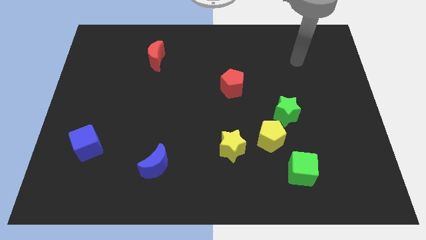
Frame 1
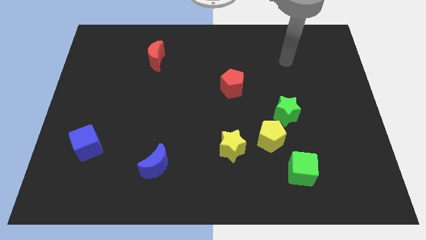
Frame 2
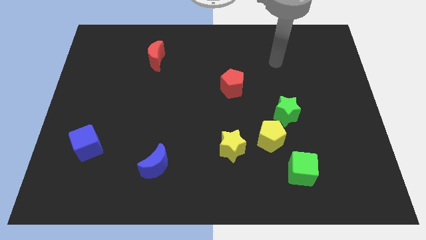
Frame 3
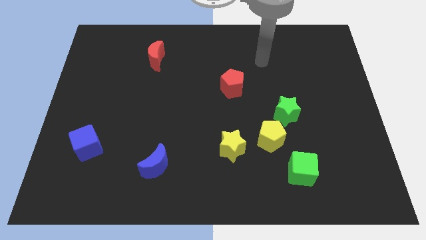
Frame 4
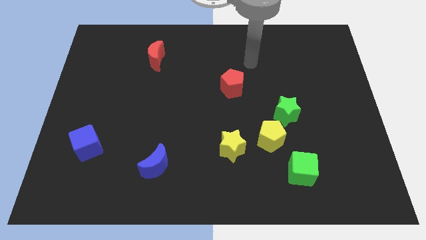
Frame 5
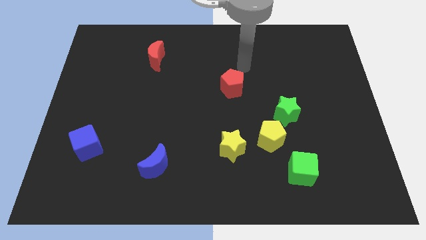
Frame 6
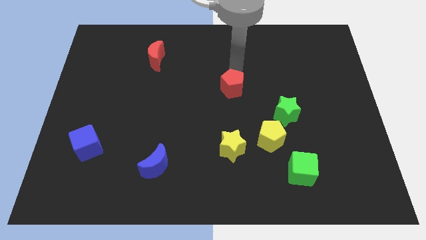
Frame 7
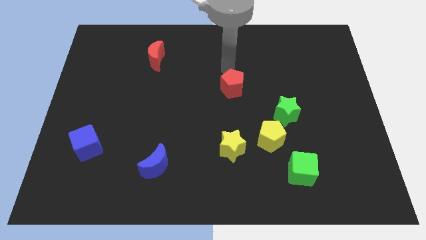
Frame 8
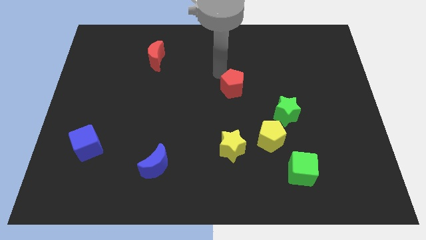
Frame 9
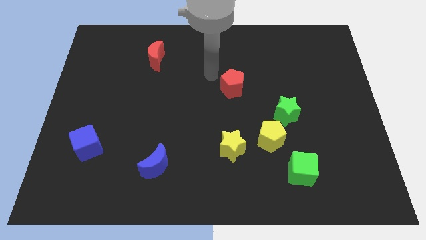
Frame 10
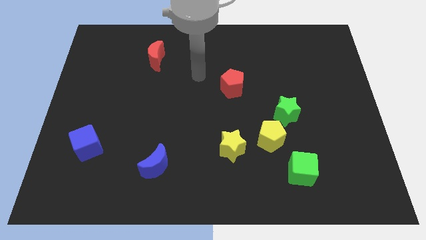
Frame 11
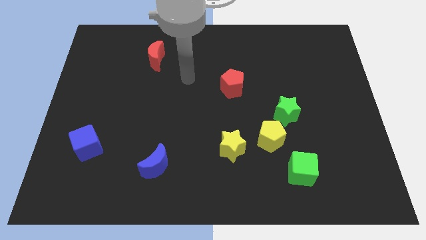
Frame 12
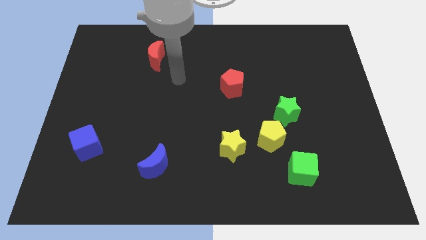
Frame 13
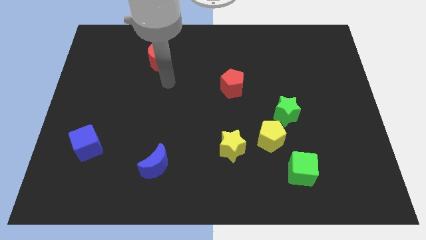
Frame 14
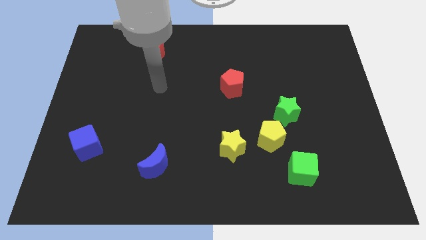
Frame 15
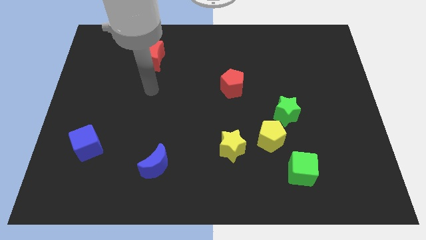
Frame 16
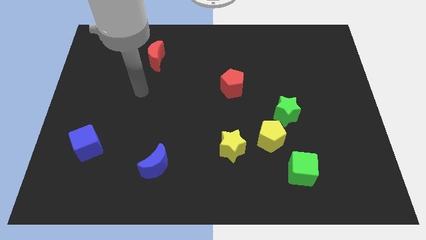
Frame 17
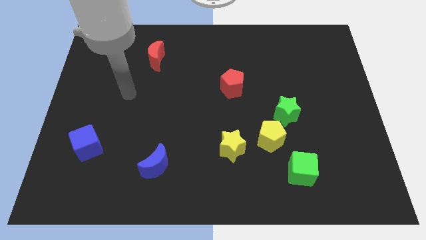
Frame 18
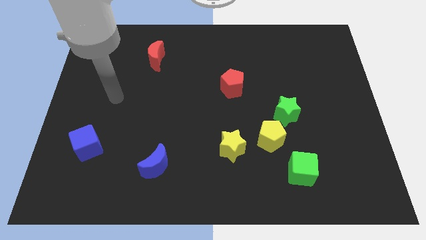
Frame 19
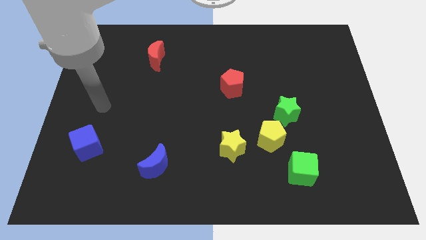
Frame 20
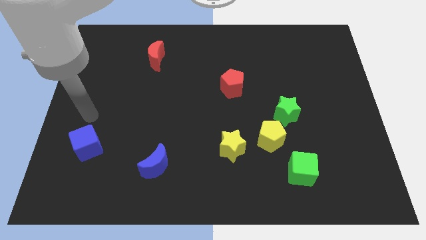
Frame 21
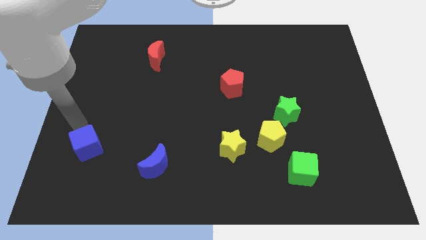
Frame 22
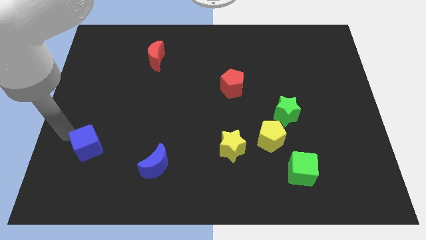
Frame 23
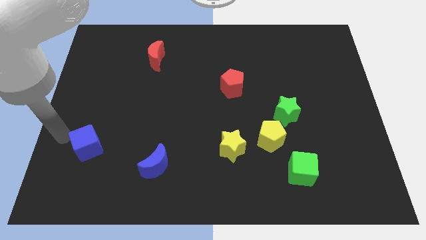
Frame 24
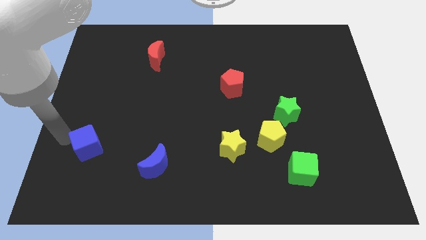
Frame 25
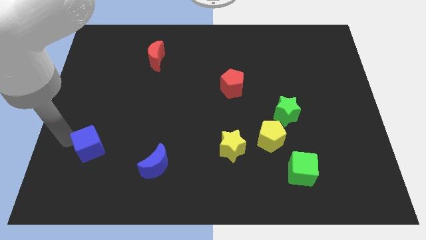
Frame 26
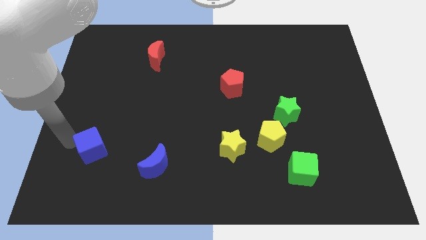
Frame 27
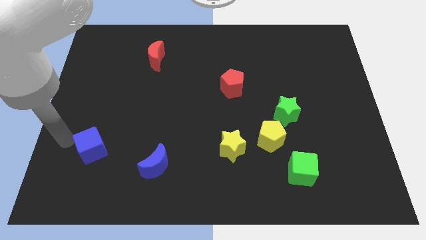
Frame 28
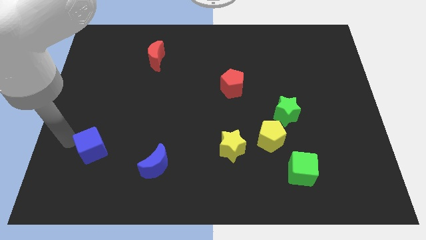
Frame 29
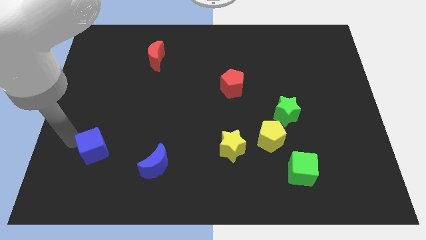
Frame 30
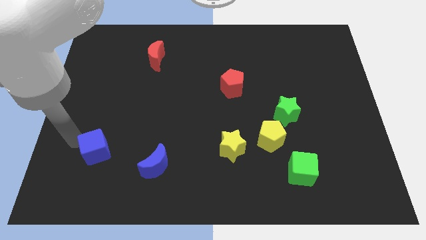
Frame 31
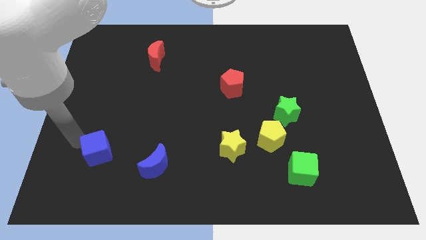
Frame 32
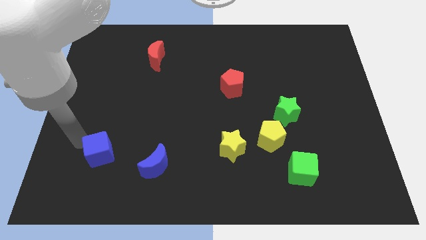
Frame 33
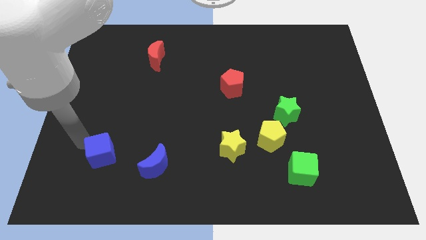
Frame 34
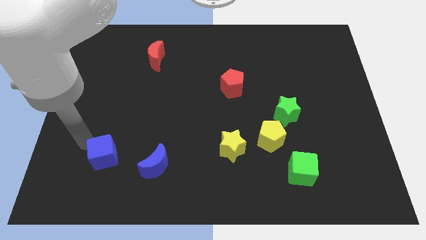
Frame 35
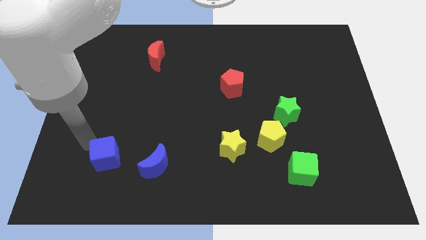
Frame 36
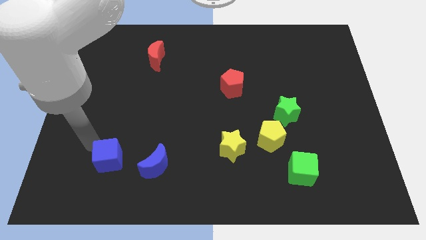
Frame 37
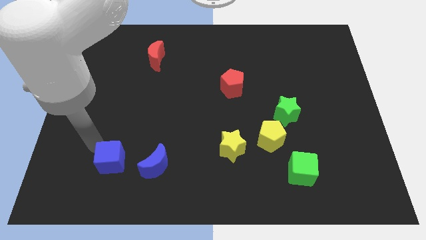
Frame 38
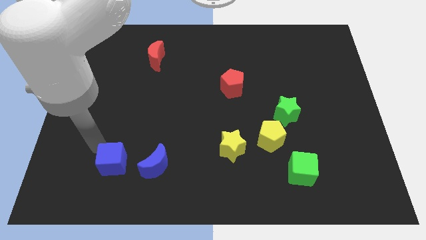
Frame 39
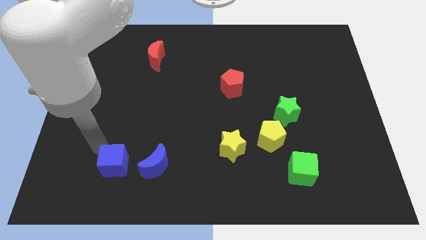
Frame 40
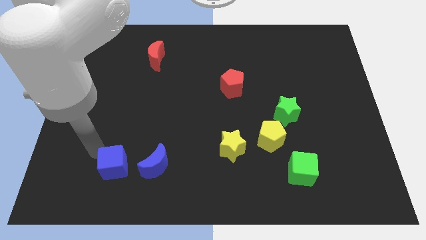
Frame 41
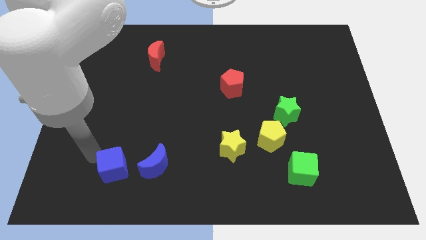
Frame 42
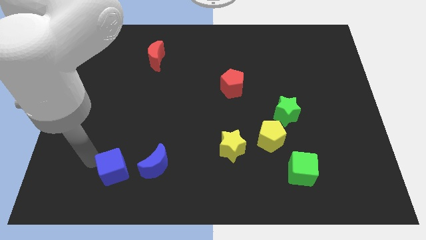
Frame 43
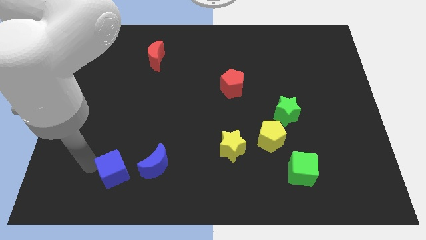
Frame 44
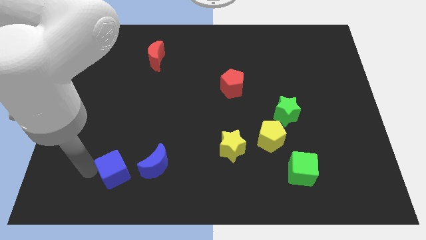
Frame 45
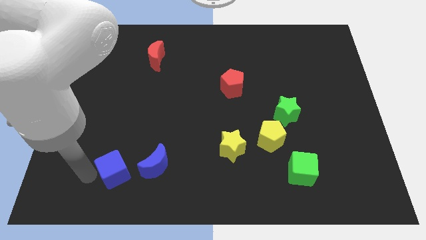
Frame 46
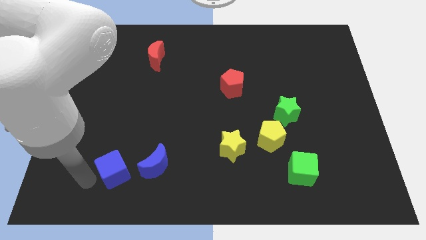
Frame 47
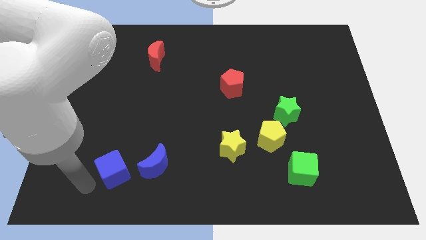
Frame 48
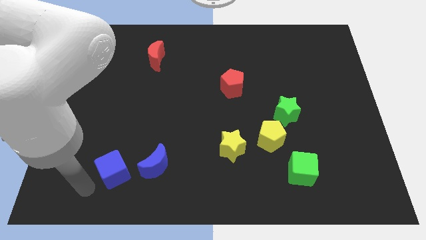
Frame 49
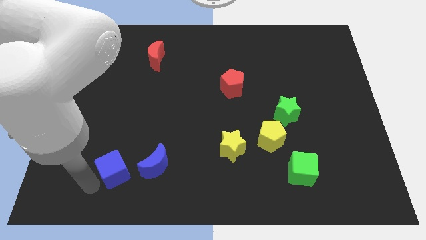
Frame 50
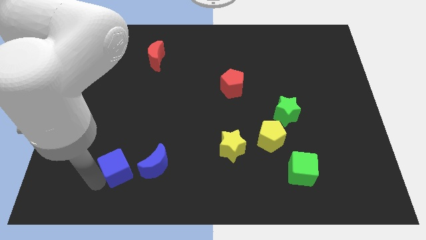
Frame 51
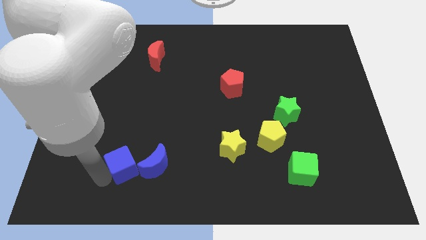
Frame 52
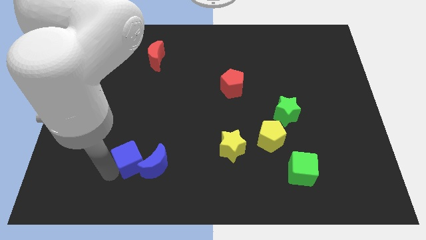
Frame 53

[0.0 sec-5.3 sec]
slide the blue cube next to the blue moon

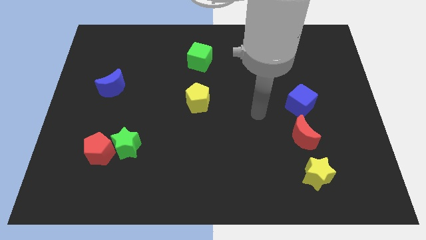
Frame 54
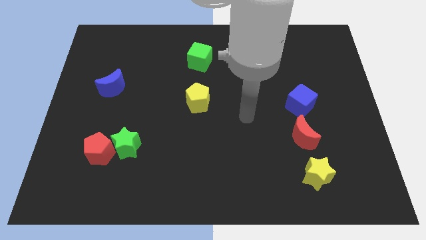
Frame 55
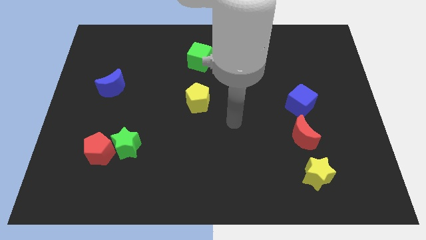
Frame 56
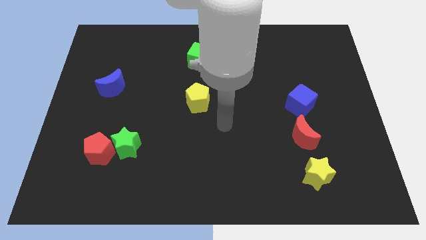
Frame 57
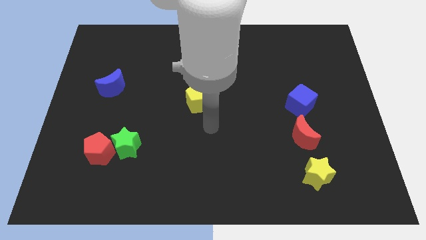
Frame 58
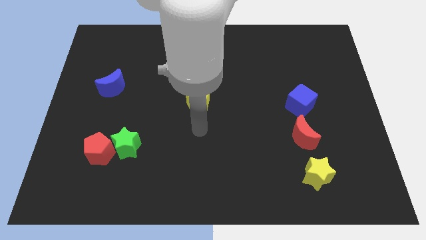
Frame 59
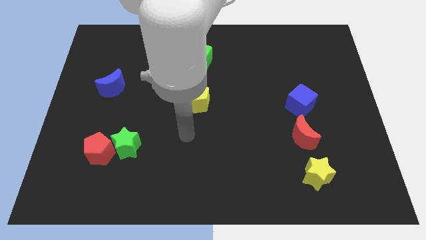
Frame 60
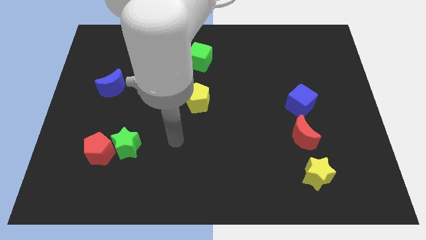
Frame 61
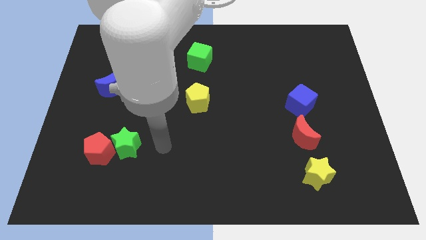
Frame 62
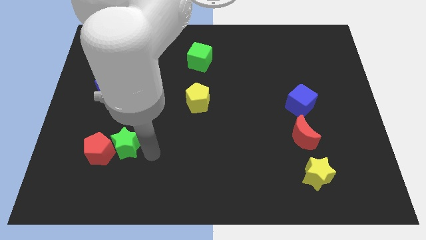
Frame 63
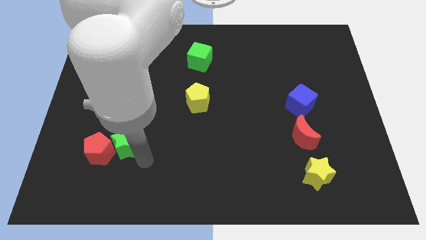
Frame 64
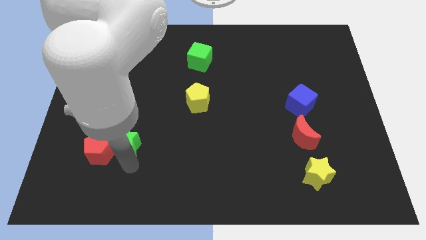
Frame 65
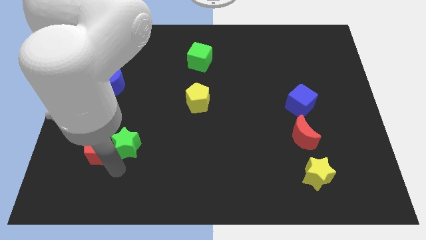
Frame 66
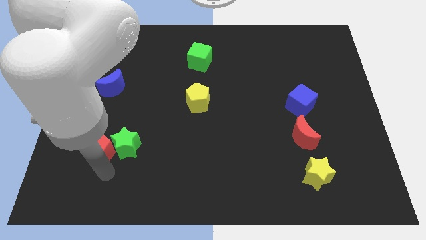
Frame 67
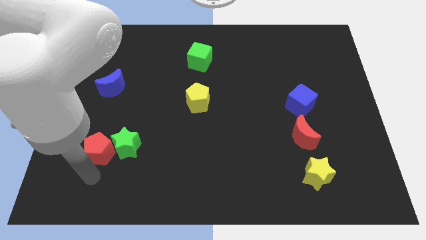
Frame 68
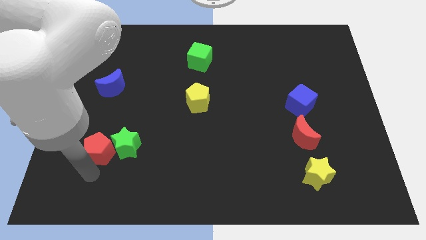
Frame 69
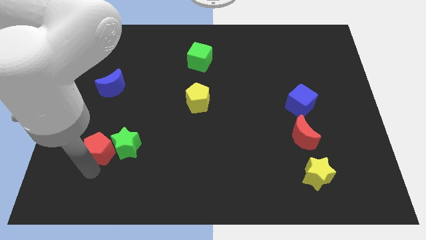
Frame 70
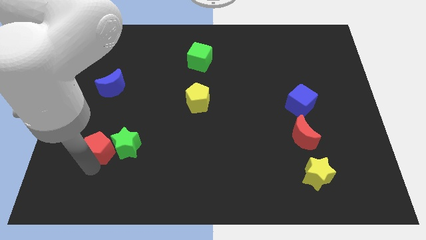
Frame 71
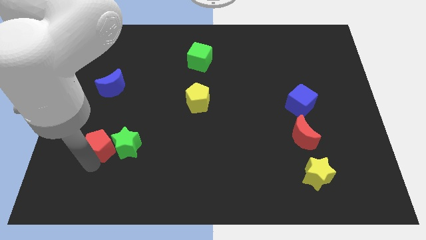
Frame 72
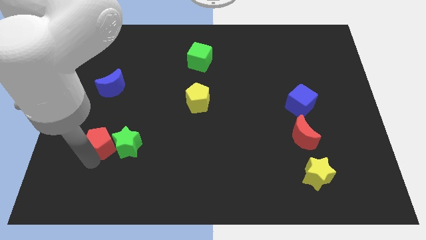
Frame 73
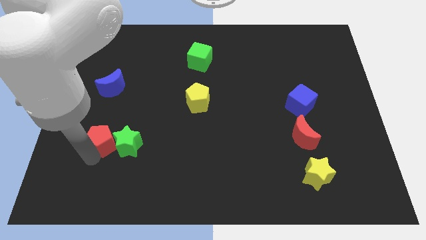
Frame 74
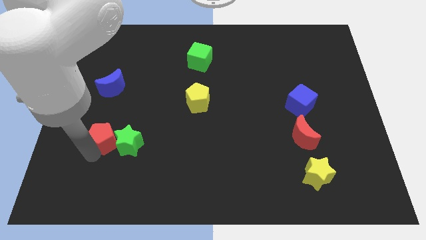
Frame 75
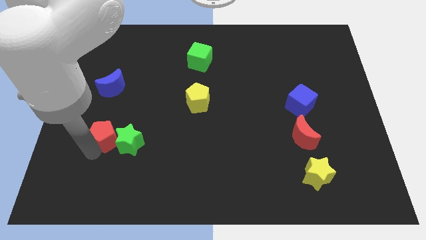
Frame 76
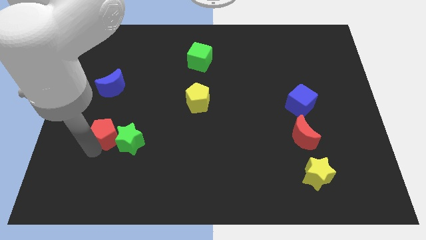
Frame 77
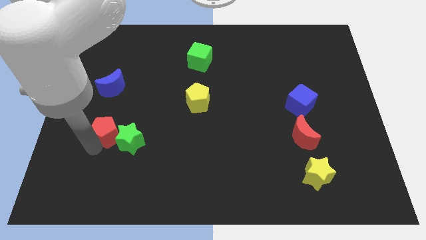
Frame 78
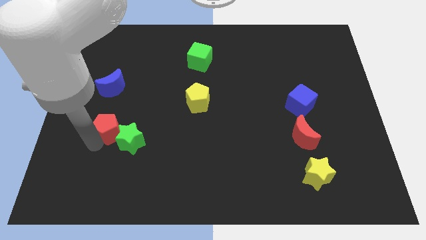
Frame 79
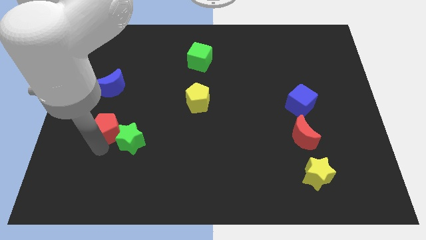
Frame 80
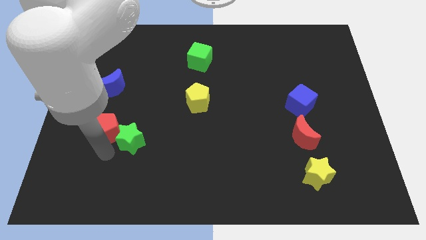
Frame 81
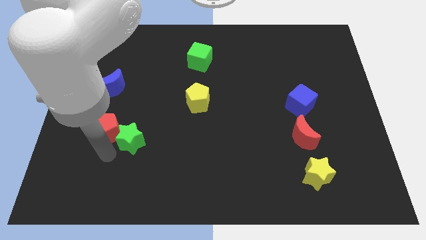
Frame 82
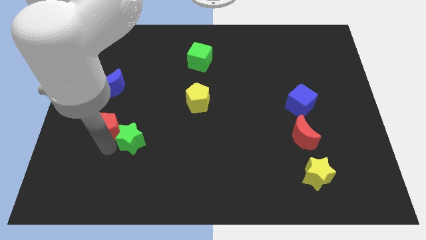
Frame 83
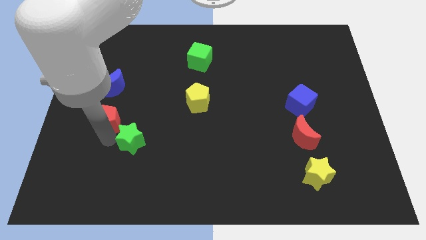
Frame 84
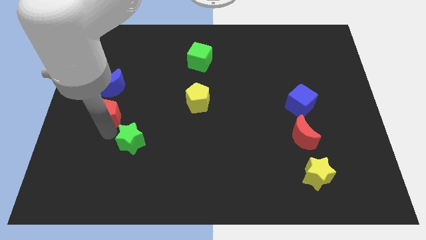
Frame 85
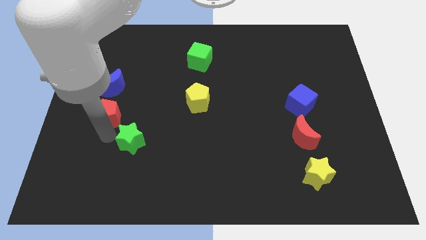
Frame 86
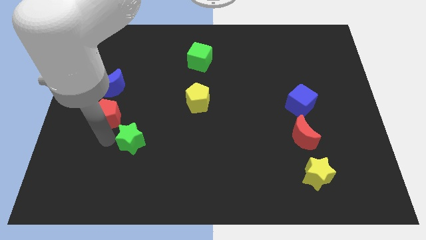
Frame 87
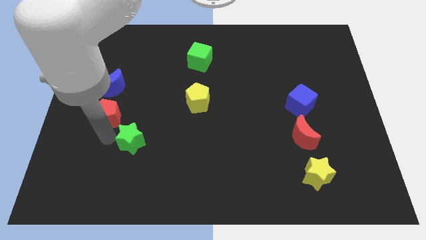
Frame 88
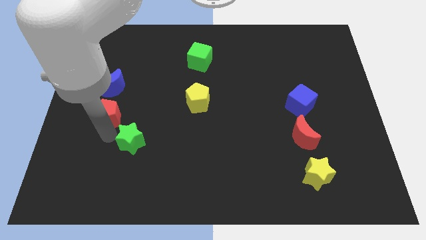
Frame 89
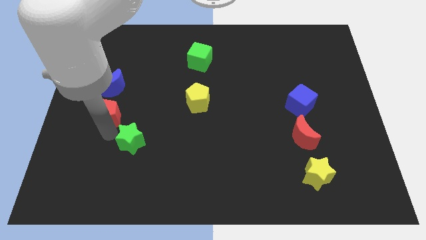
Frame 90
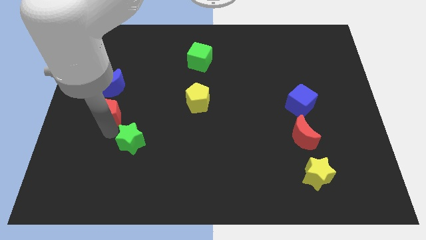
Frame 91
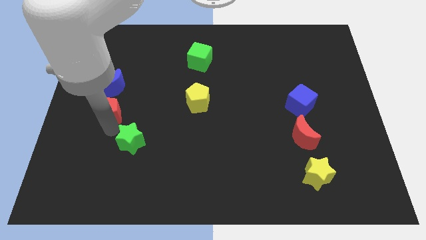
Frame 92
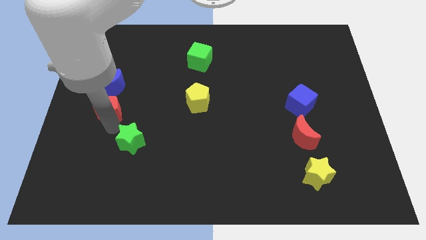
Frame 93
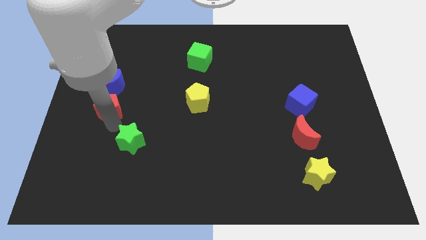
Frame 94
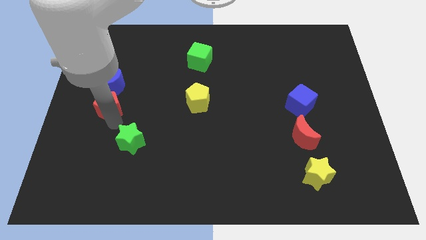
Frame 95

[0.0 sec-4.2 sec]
slide the red pentagon close to the blue moon
